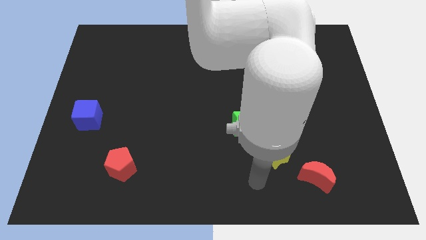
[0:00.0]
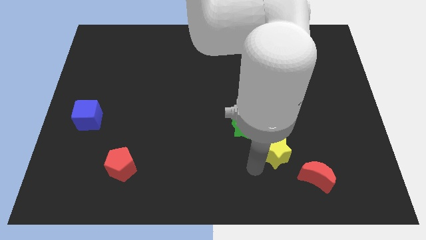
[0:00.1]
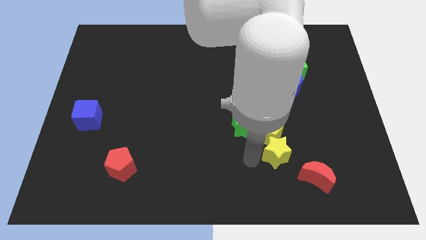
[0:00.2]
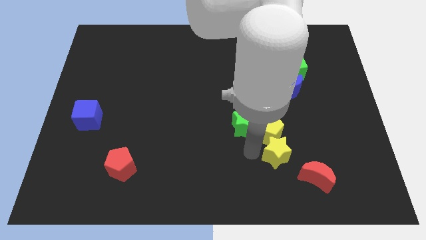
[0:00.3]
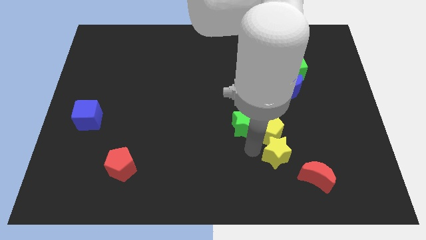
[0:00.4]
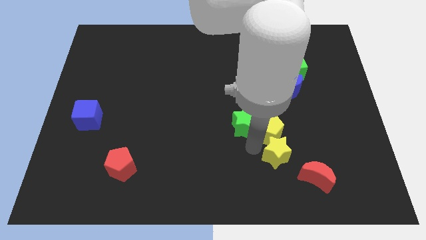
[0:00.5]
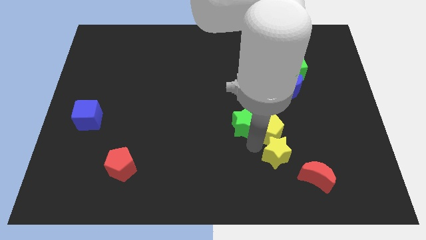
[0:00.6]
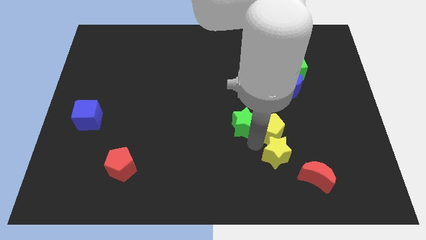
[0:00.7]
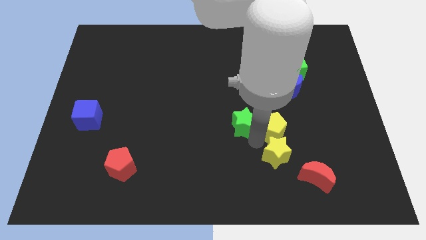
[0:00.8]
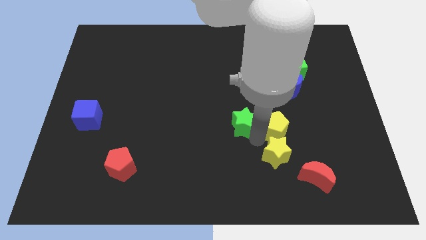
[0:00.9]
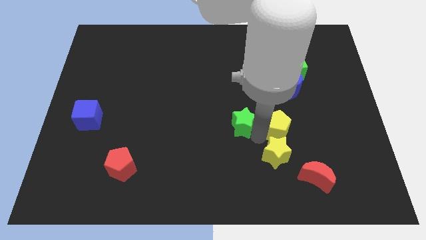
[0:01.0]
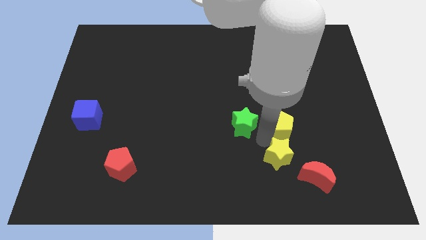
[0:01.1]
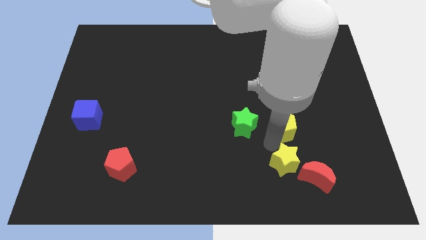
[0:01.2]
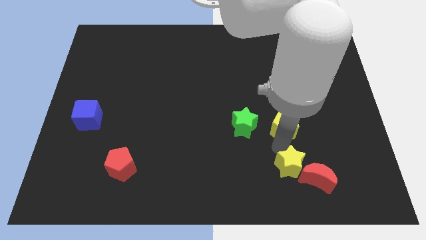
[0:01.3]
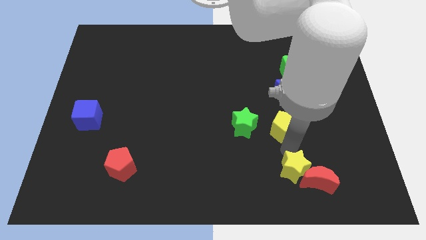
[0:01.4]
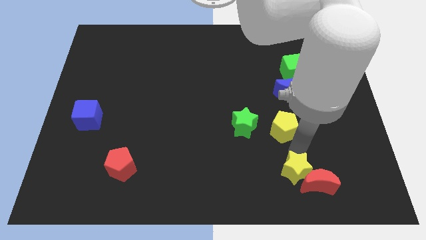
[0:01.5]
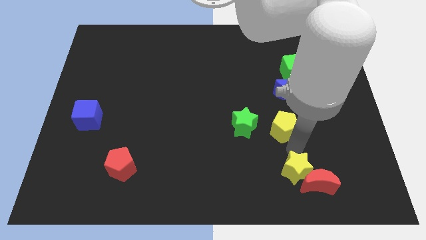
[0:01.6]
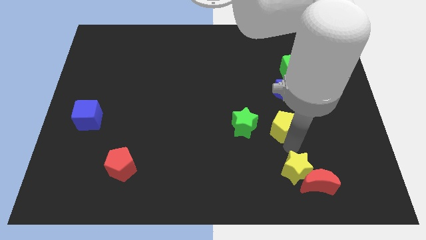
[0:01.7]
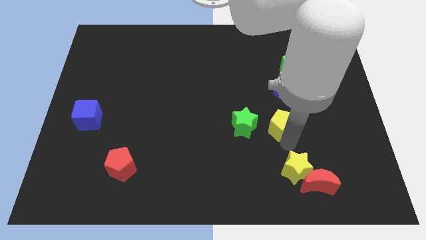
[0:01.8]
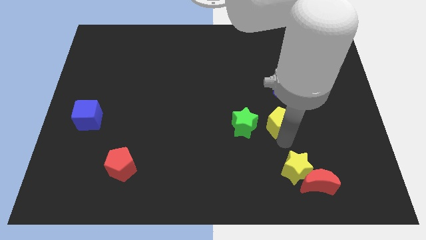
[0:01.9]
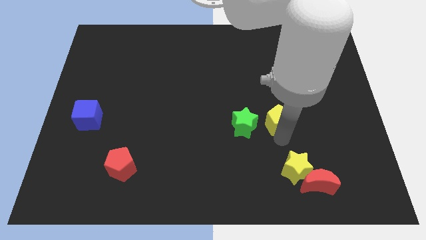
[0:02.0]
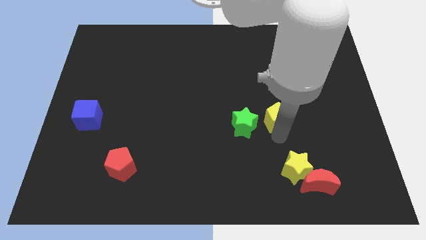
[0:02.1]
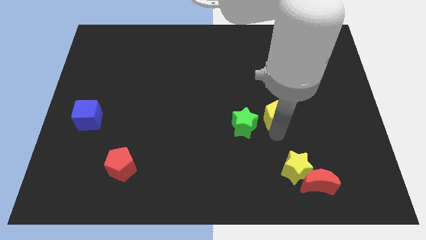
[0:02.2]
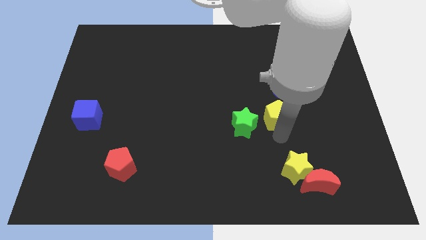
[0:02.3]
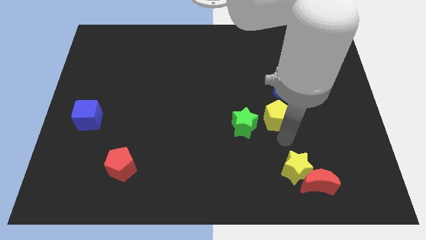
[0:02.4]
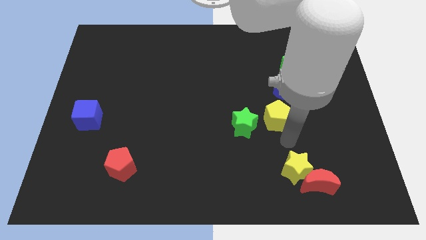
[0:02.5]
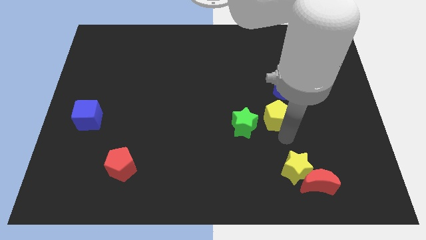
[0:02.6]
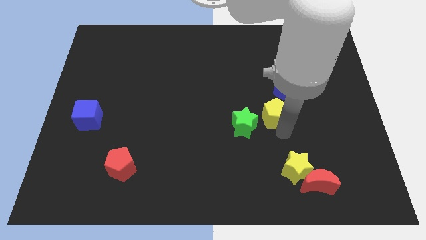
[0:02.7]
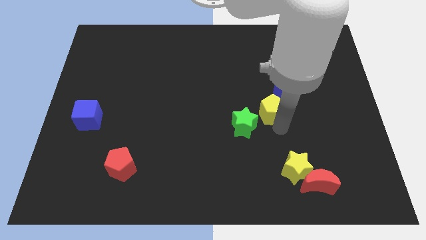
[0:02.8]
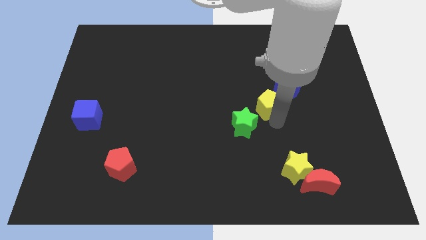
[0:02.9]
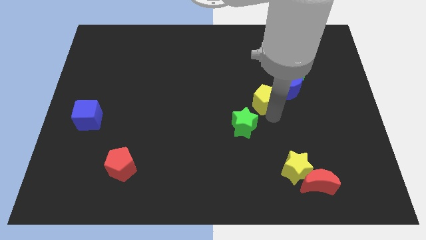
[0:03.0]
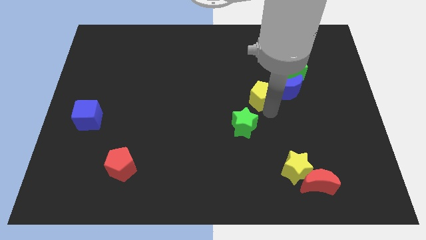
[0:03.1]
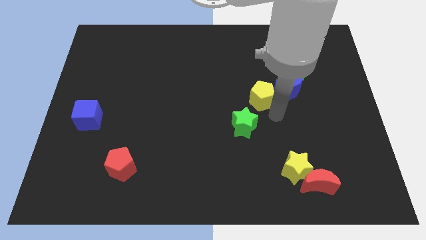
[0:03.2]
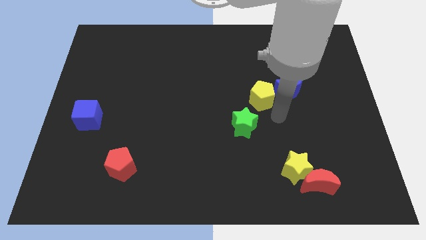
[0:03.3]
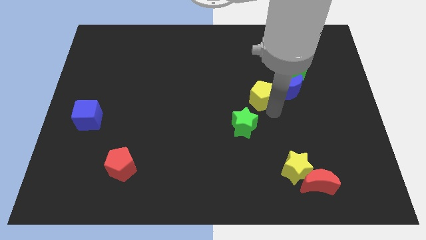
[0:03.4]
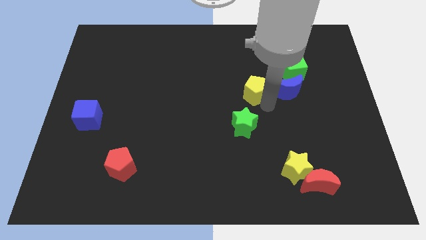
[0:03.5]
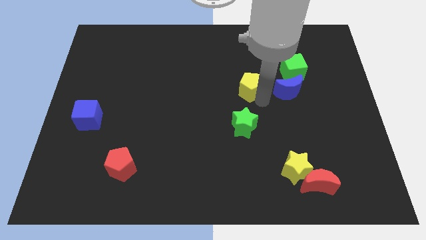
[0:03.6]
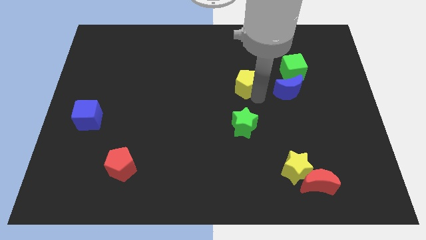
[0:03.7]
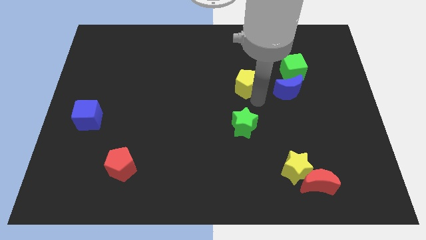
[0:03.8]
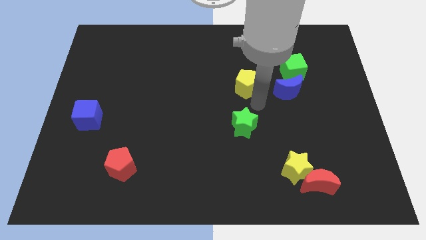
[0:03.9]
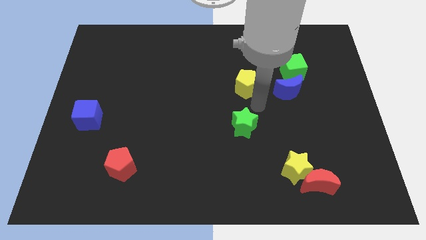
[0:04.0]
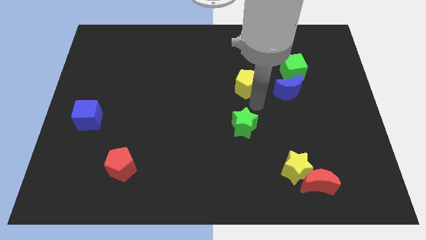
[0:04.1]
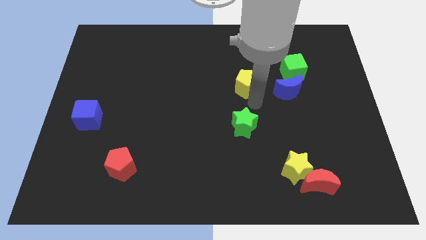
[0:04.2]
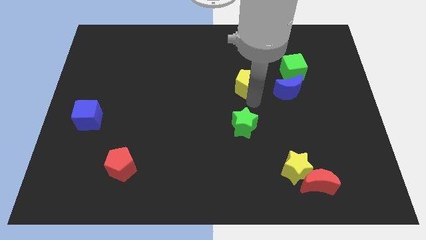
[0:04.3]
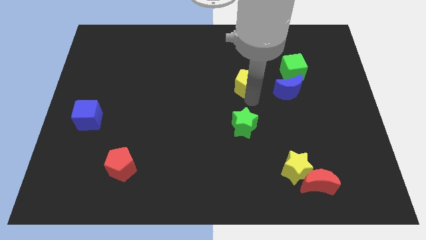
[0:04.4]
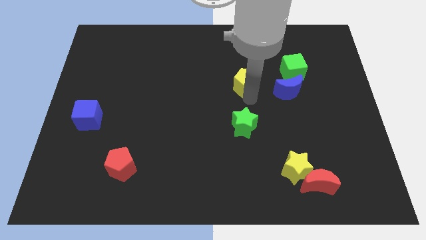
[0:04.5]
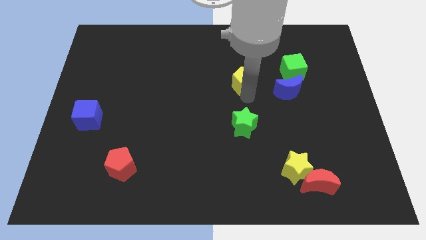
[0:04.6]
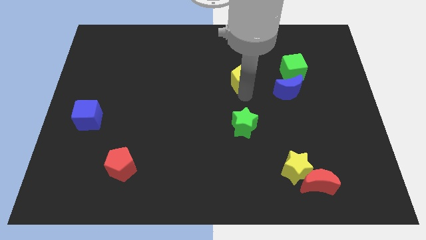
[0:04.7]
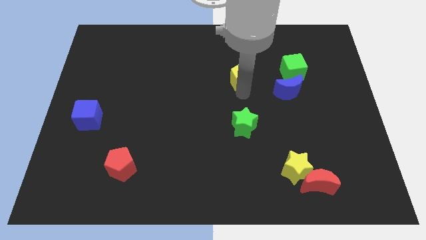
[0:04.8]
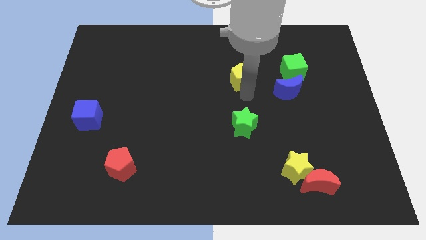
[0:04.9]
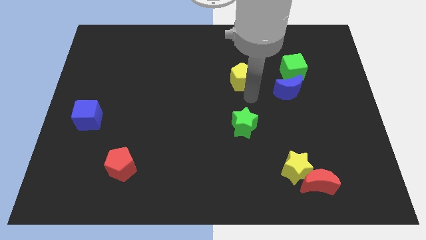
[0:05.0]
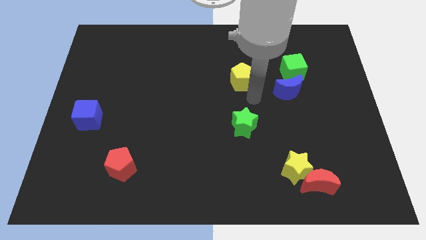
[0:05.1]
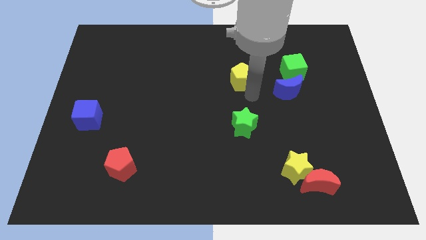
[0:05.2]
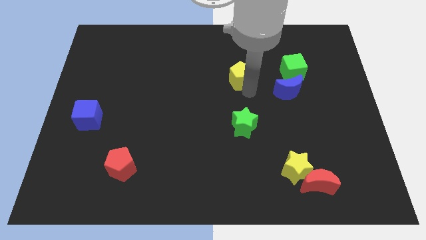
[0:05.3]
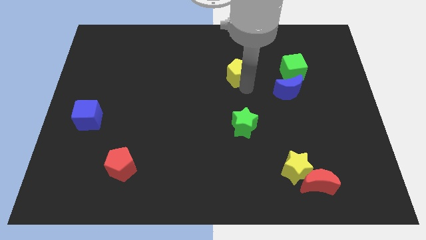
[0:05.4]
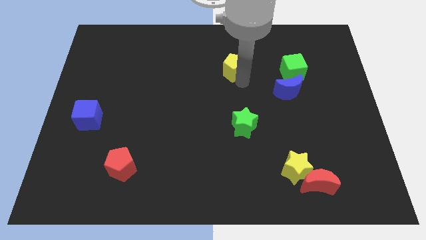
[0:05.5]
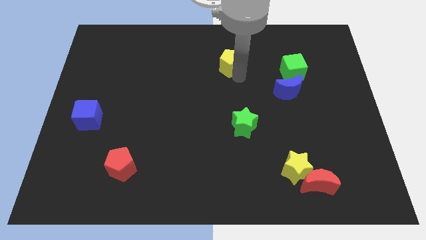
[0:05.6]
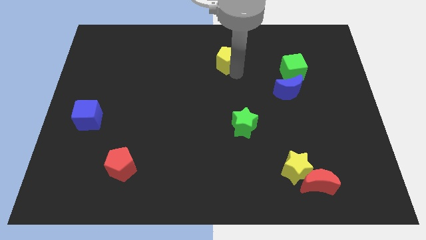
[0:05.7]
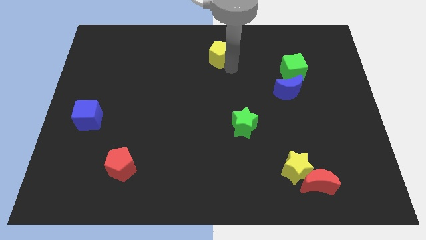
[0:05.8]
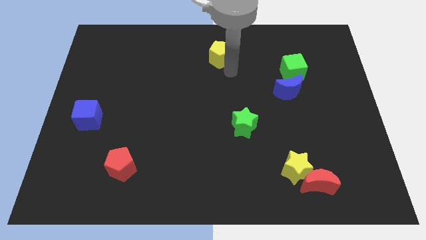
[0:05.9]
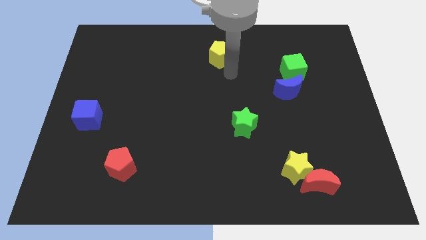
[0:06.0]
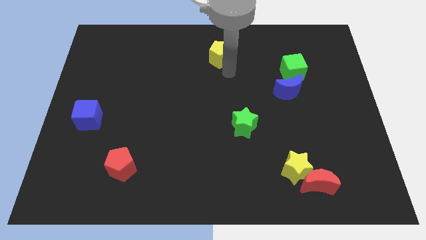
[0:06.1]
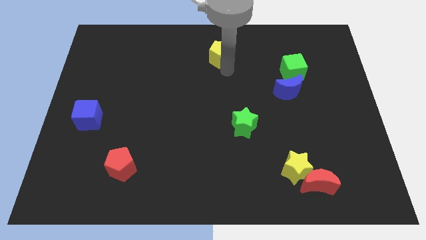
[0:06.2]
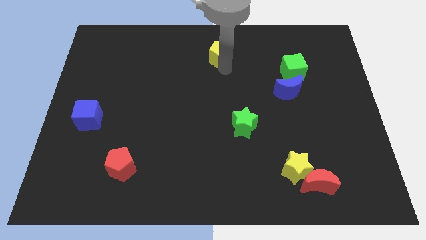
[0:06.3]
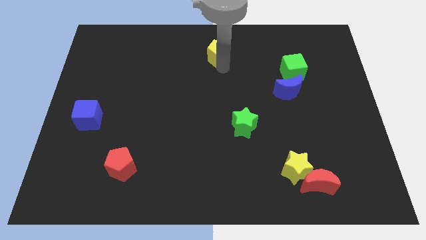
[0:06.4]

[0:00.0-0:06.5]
push the yellow pentagon to the top
